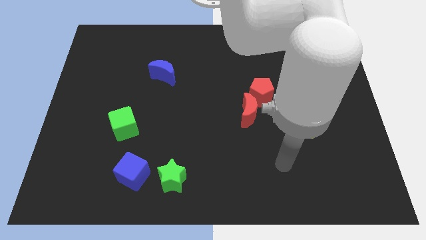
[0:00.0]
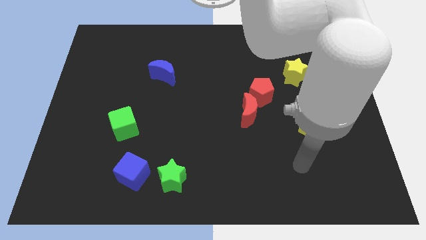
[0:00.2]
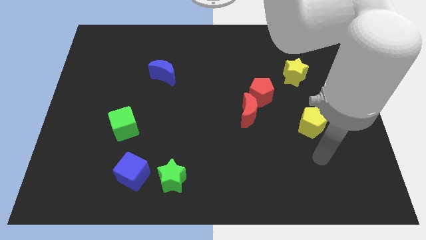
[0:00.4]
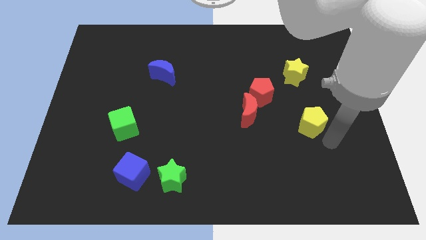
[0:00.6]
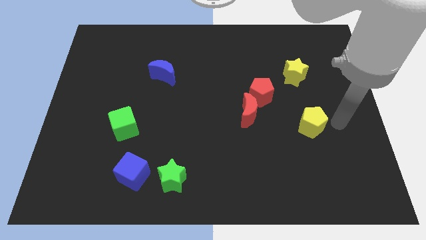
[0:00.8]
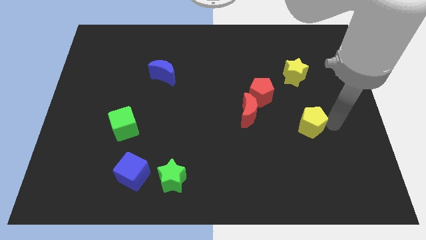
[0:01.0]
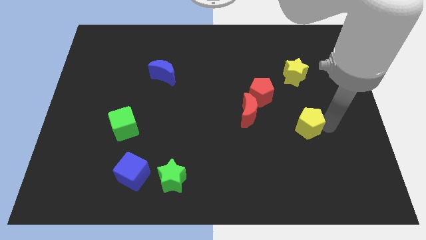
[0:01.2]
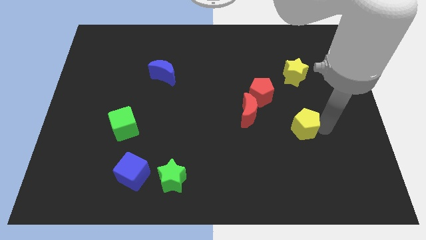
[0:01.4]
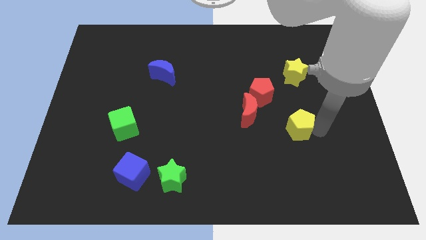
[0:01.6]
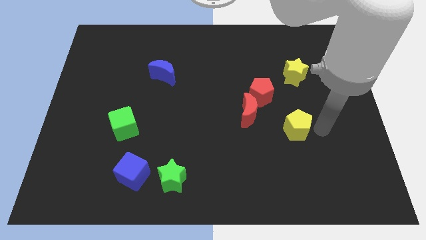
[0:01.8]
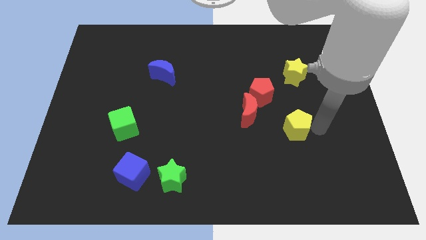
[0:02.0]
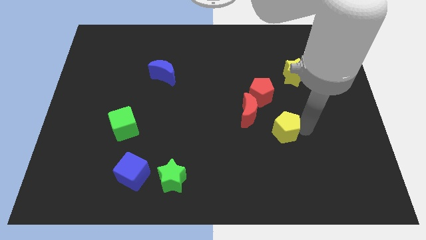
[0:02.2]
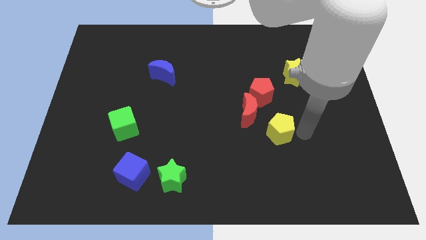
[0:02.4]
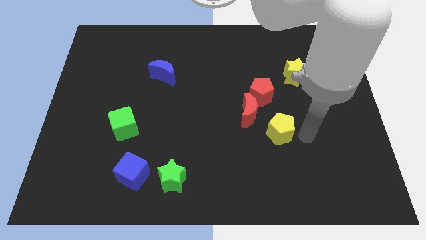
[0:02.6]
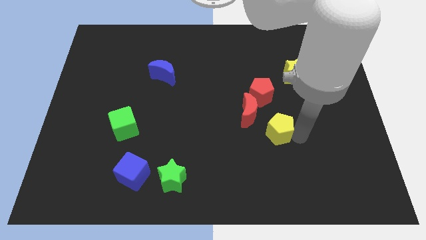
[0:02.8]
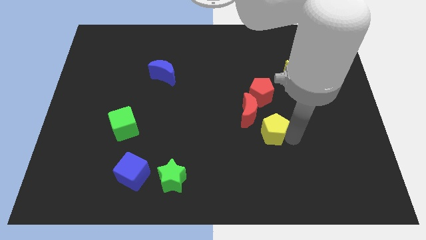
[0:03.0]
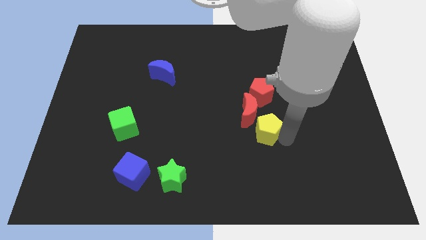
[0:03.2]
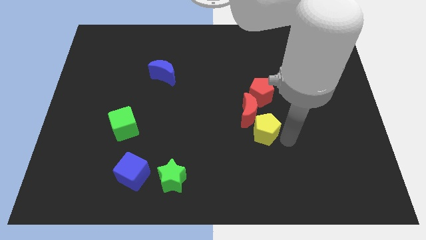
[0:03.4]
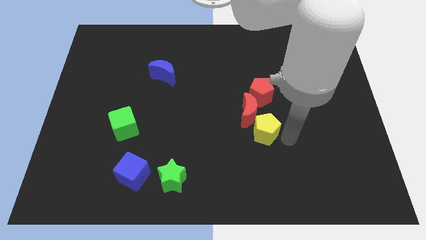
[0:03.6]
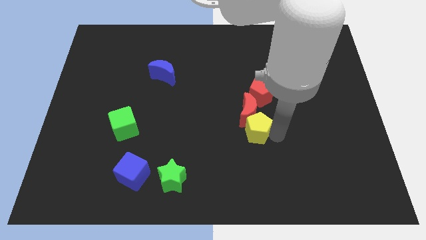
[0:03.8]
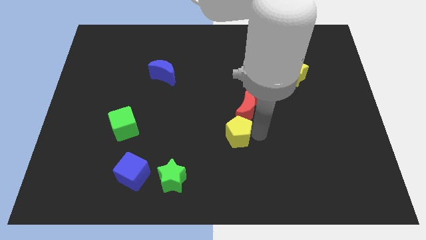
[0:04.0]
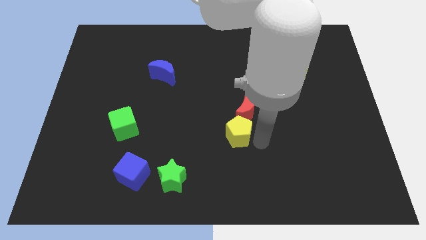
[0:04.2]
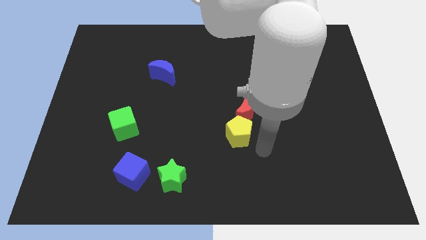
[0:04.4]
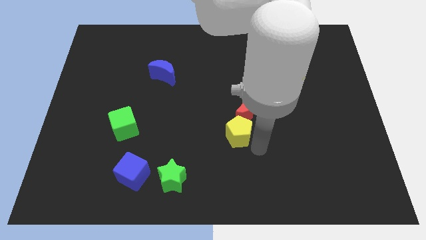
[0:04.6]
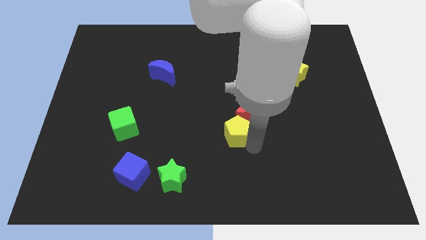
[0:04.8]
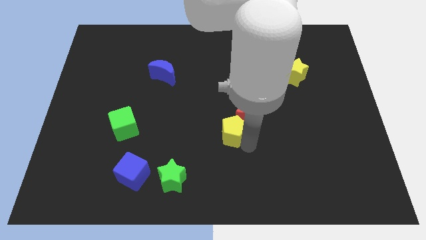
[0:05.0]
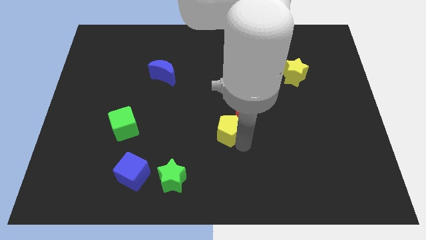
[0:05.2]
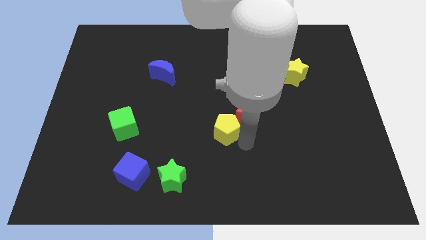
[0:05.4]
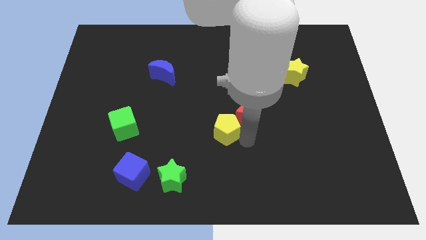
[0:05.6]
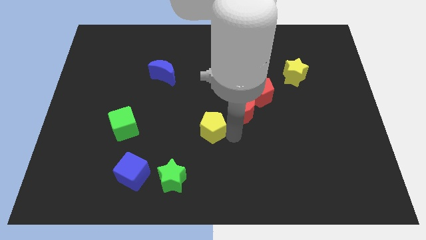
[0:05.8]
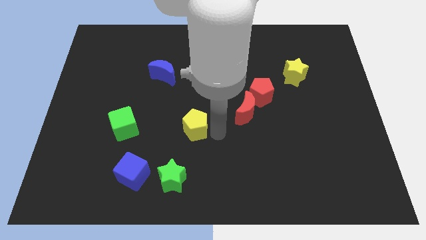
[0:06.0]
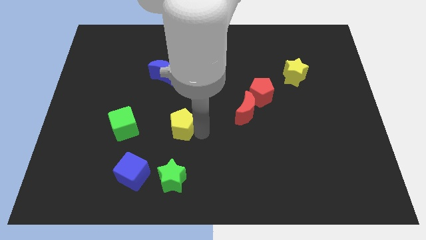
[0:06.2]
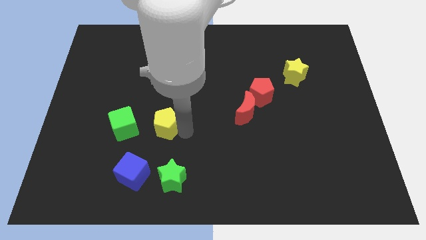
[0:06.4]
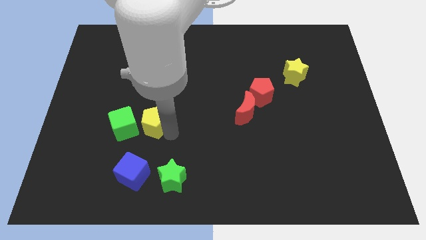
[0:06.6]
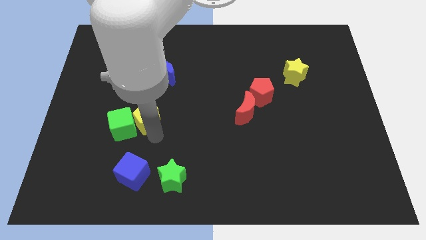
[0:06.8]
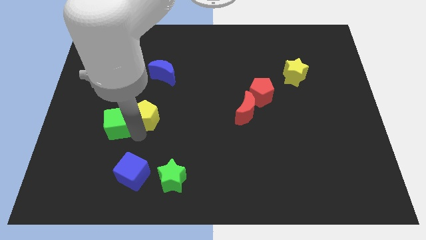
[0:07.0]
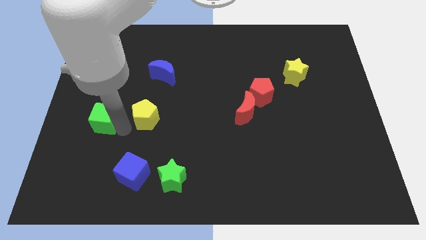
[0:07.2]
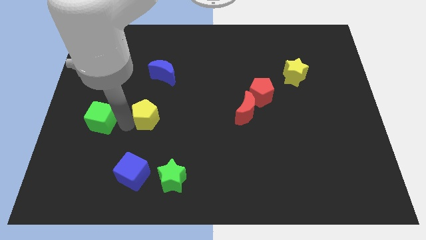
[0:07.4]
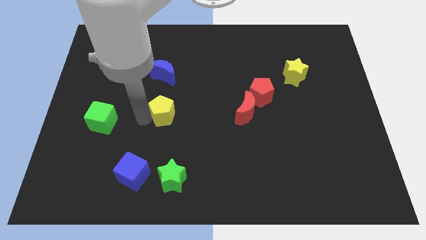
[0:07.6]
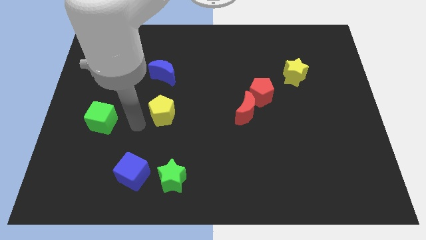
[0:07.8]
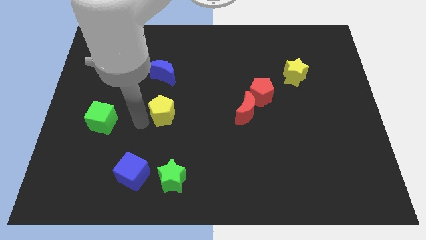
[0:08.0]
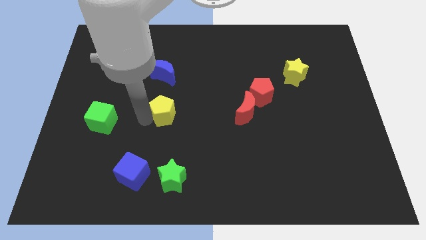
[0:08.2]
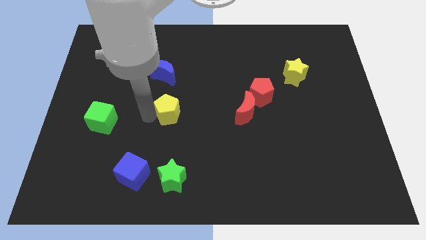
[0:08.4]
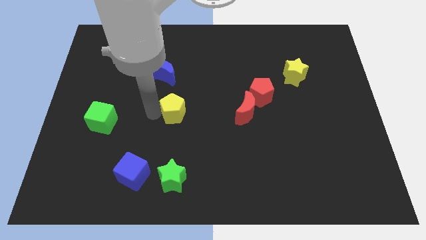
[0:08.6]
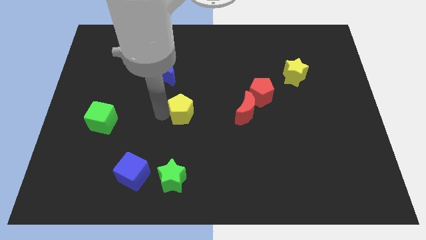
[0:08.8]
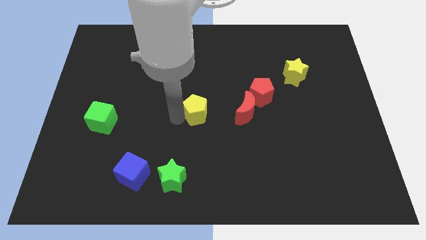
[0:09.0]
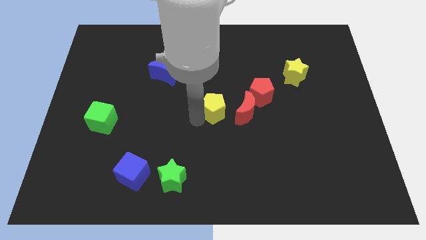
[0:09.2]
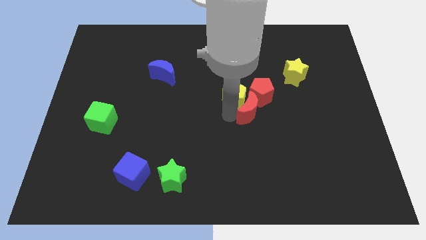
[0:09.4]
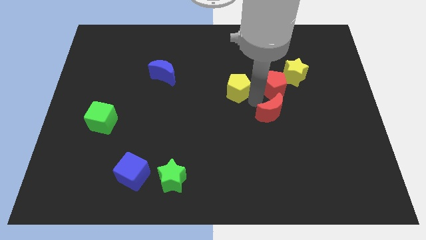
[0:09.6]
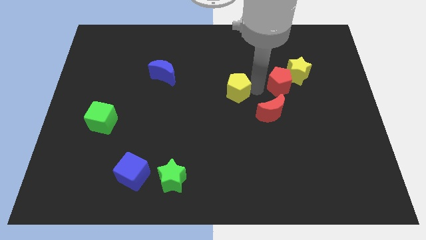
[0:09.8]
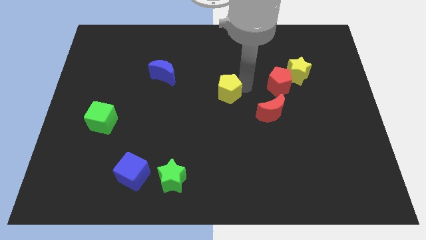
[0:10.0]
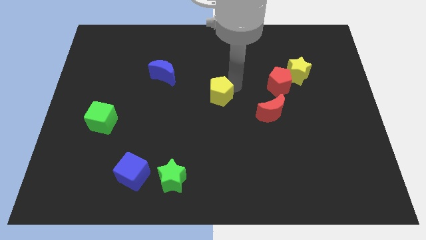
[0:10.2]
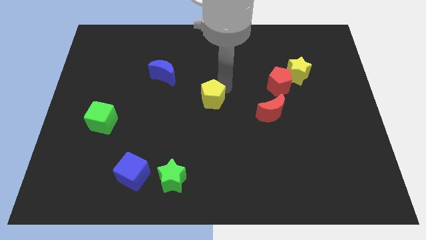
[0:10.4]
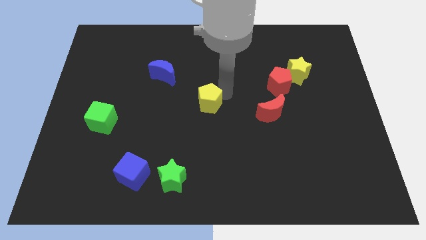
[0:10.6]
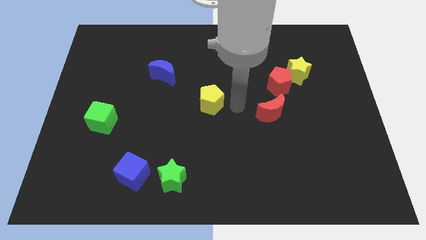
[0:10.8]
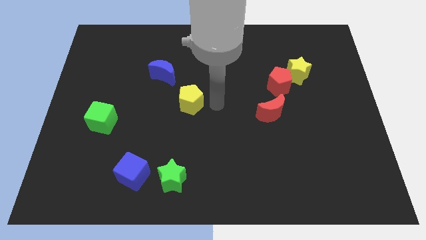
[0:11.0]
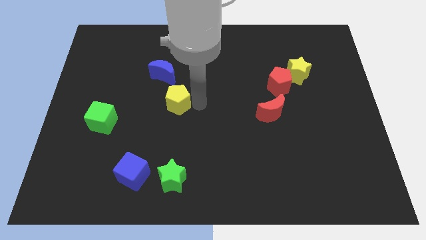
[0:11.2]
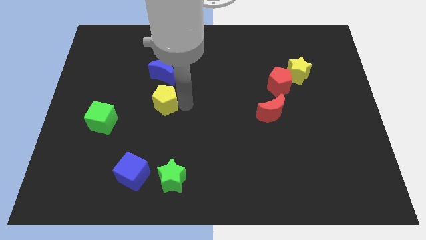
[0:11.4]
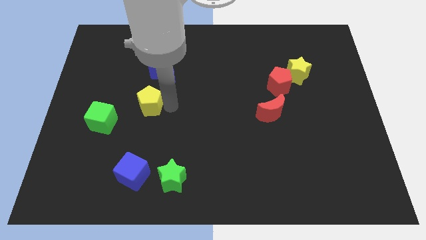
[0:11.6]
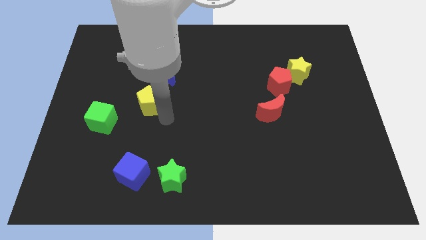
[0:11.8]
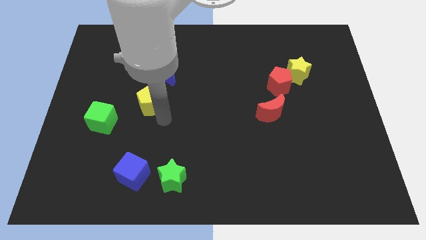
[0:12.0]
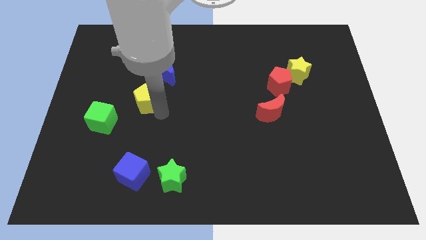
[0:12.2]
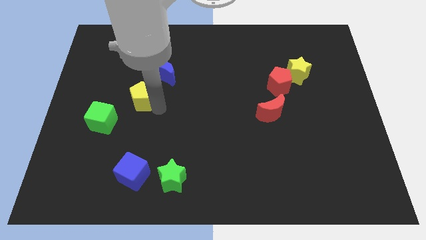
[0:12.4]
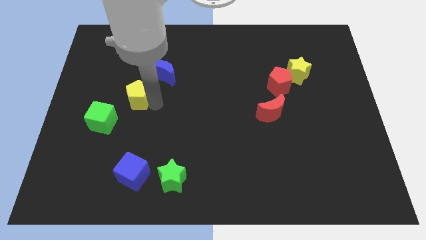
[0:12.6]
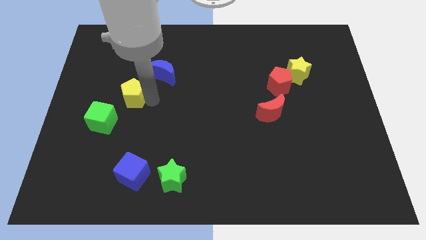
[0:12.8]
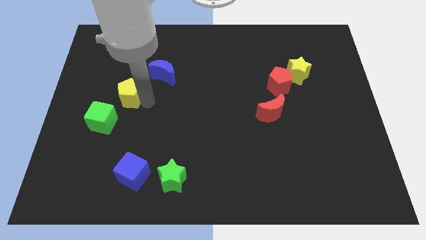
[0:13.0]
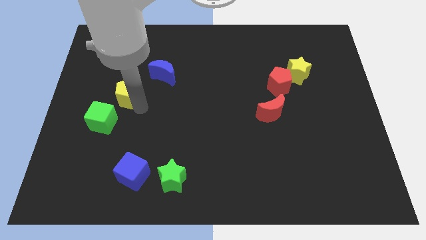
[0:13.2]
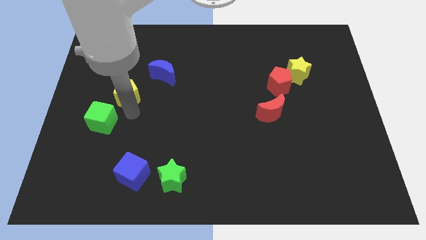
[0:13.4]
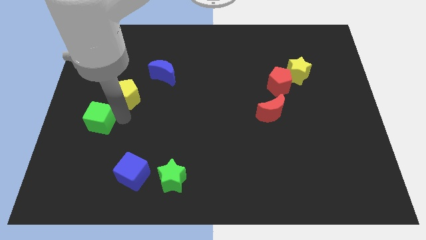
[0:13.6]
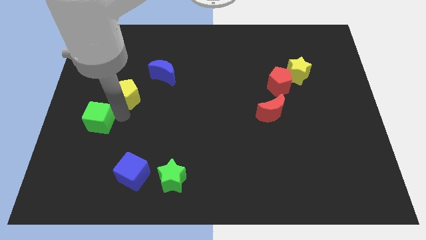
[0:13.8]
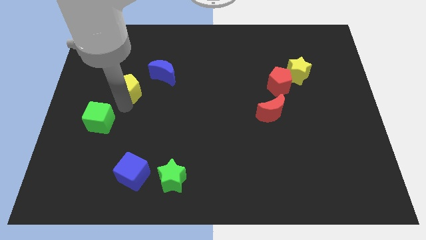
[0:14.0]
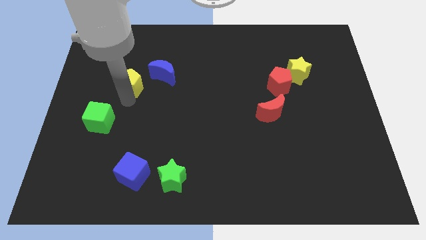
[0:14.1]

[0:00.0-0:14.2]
move the yellow pentagon to the left side of the blue moon
